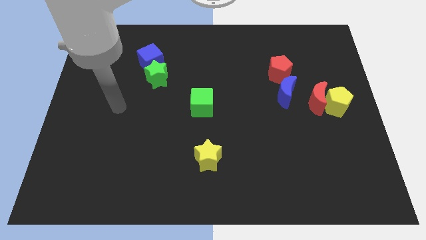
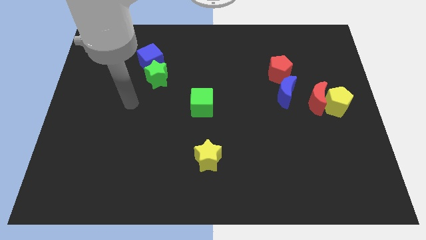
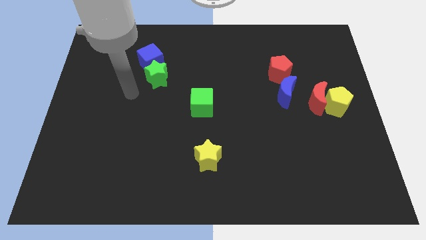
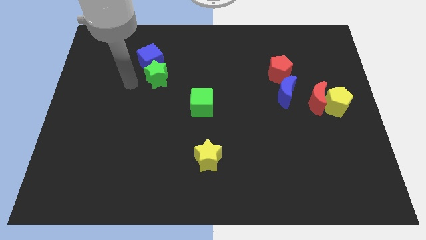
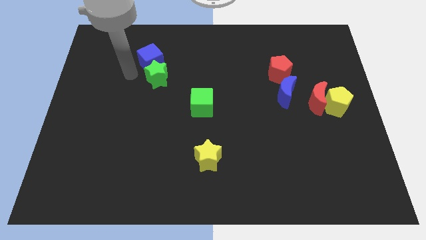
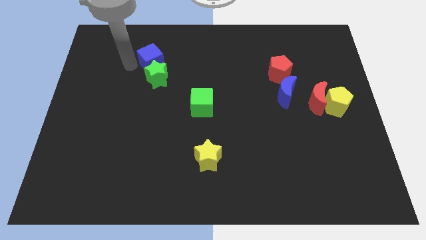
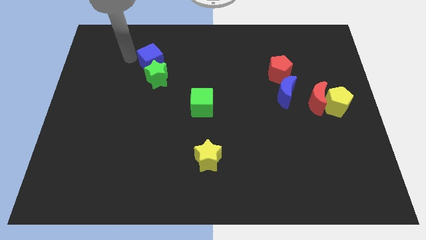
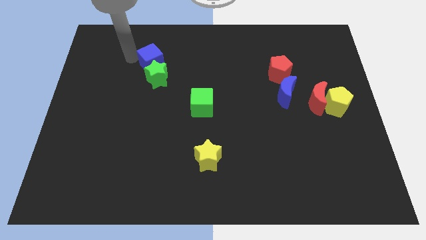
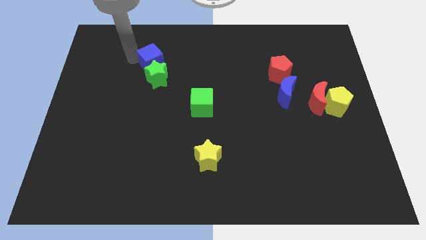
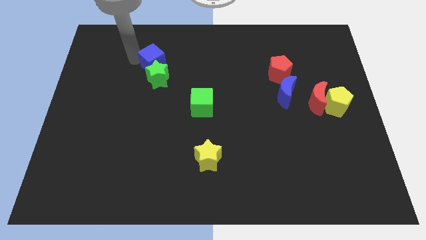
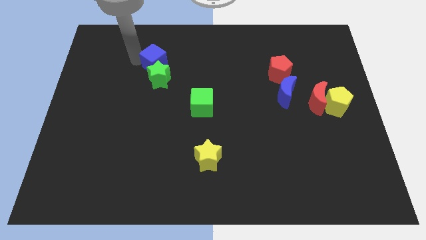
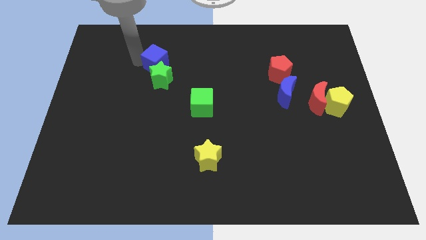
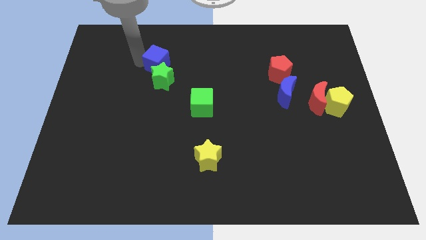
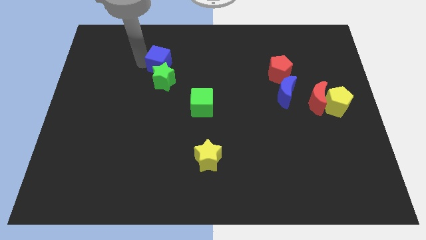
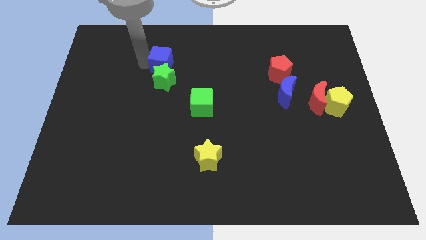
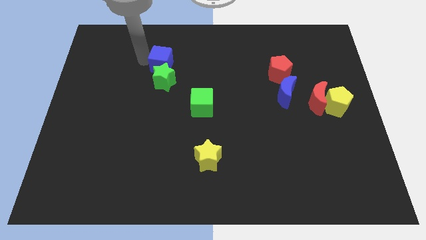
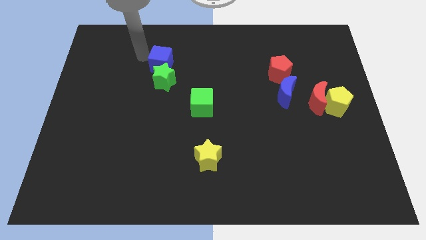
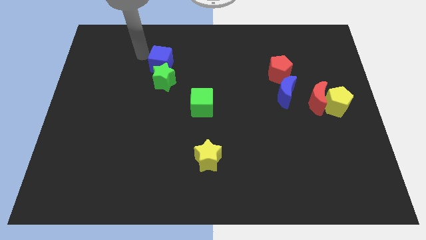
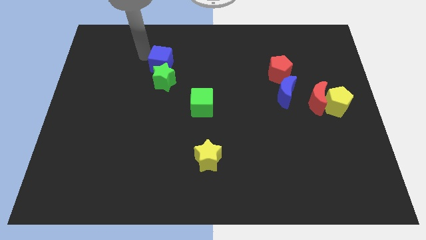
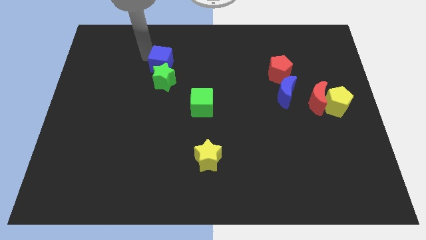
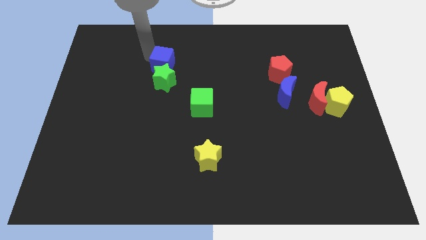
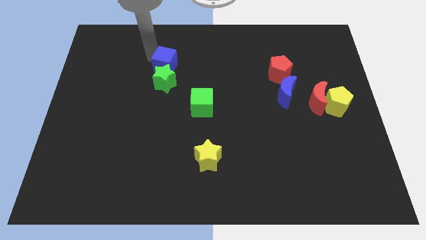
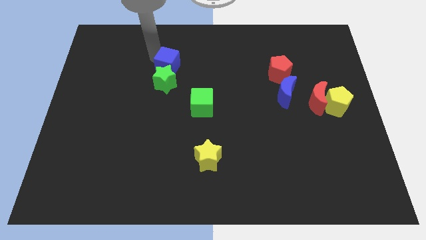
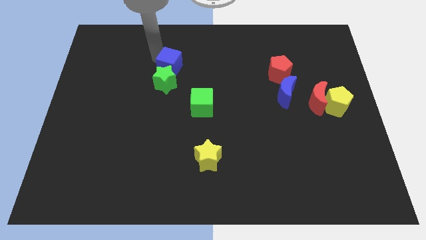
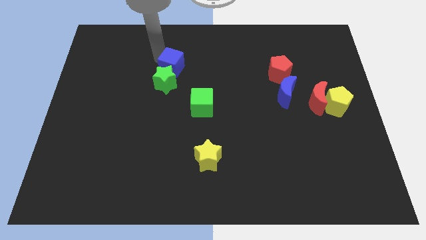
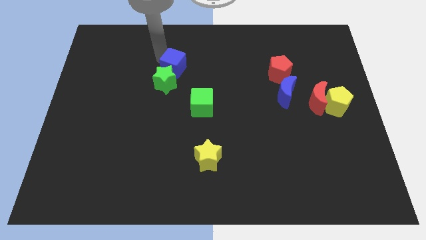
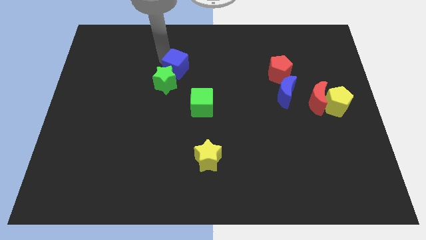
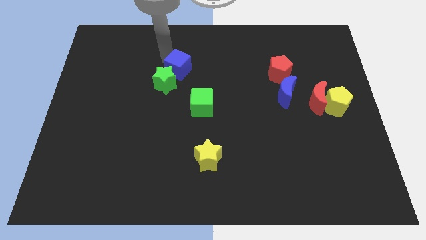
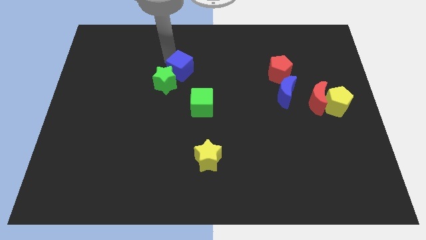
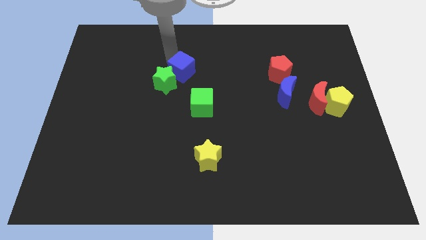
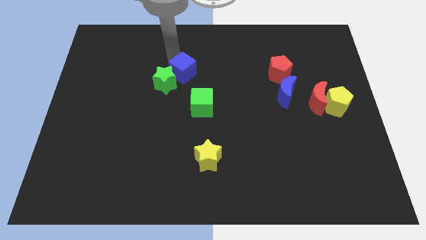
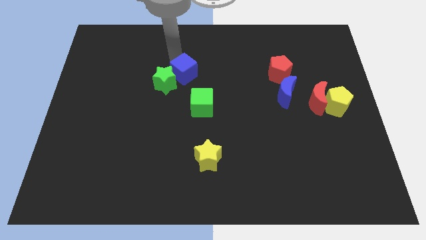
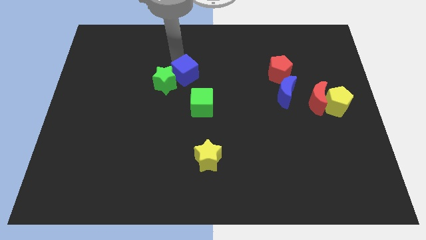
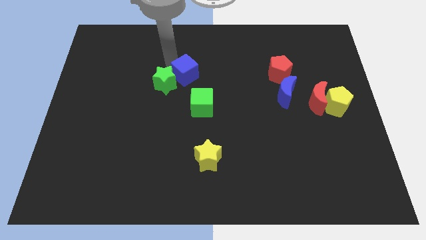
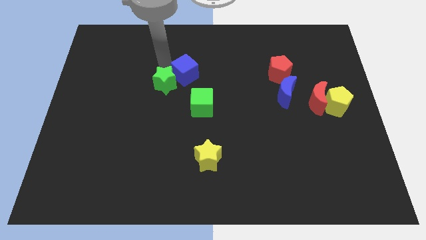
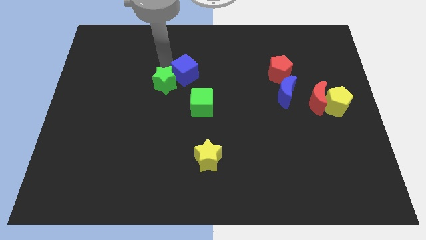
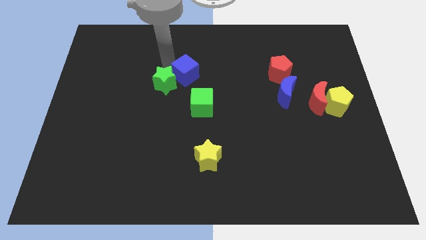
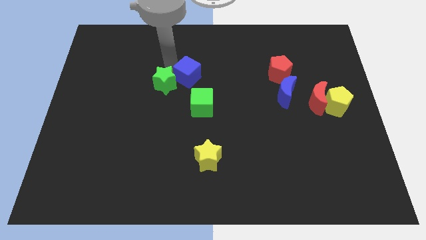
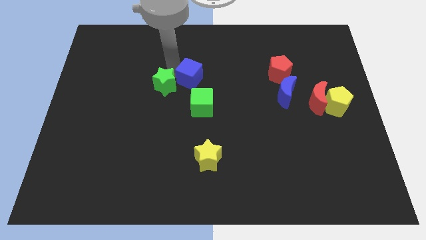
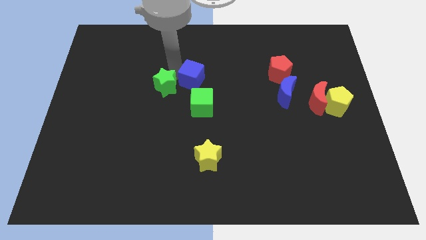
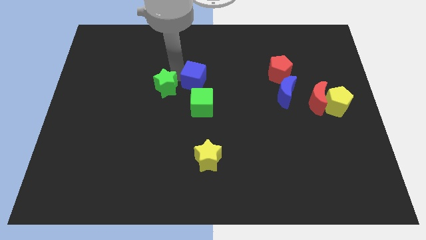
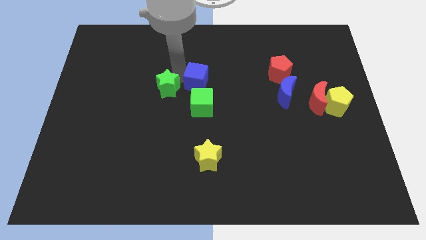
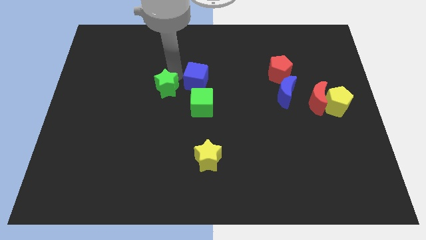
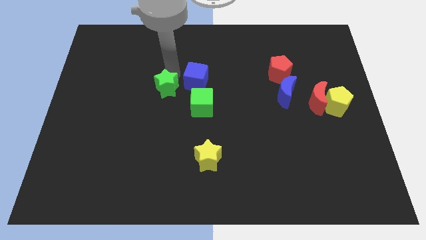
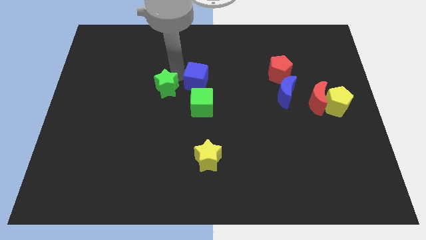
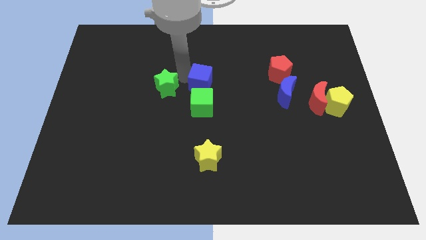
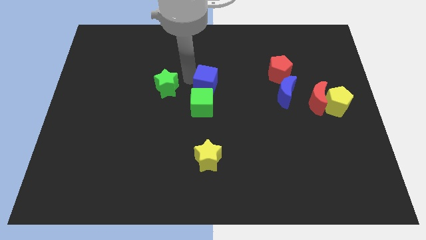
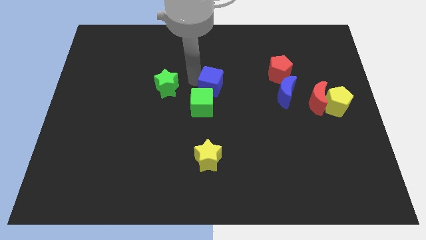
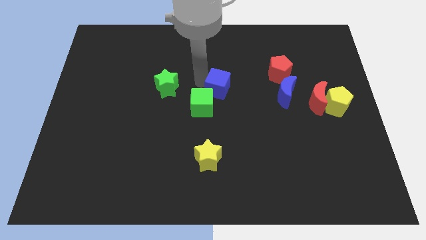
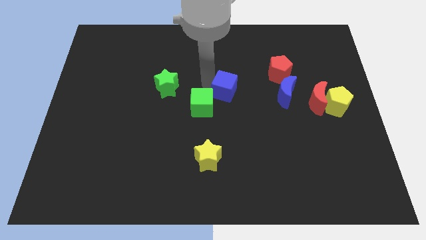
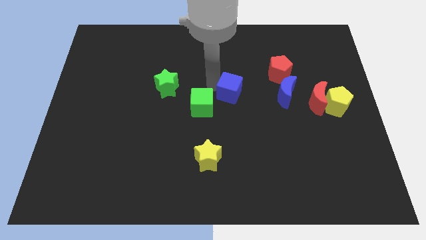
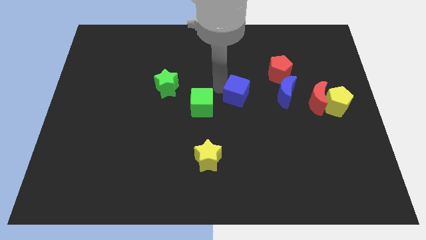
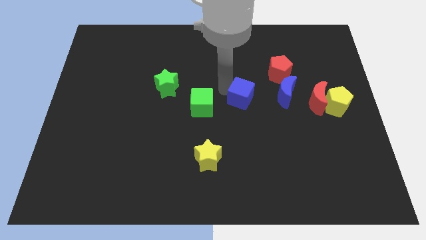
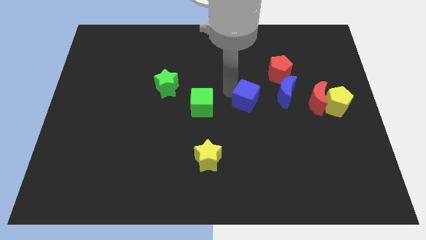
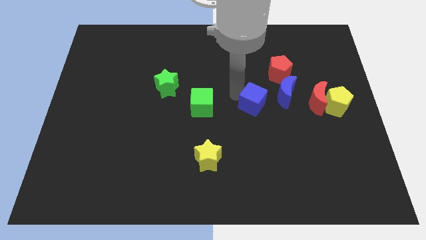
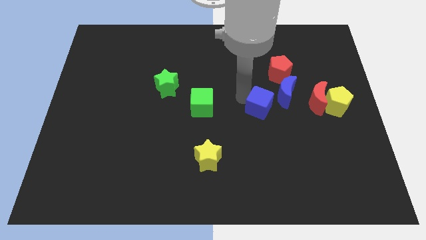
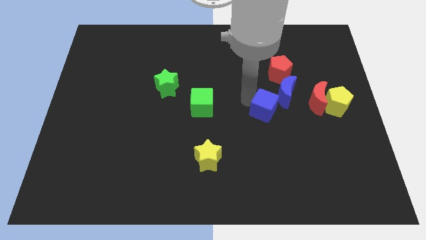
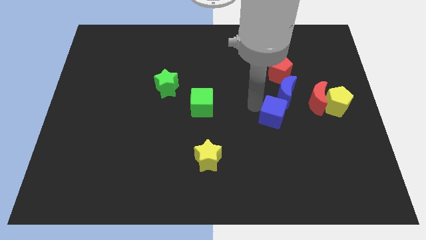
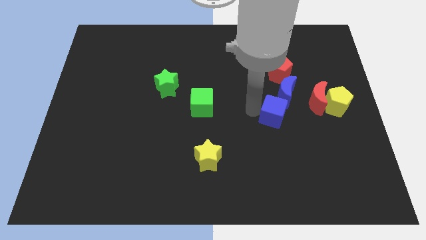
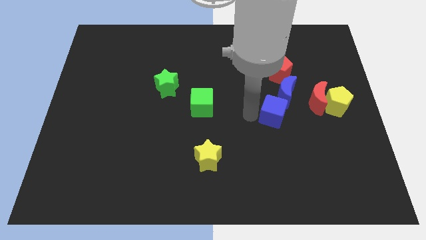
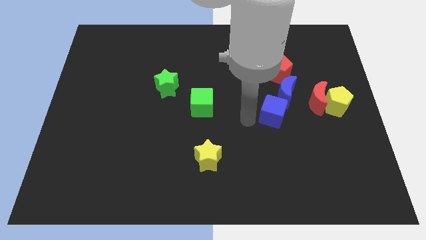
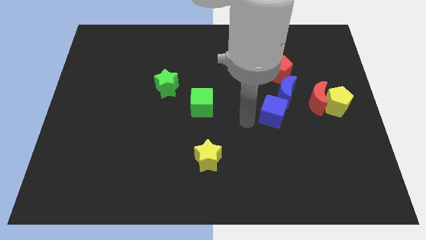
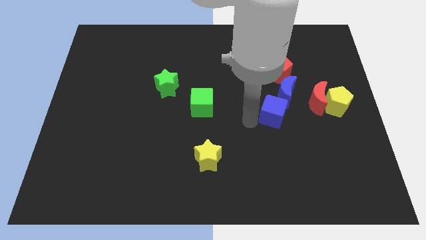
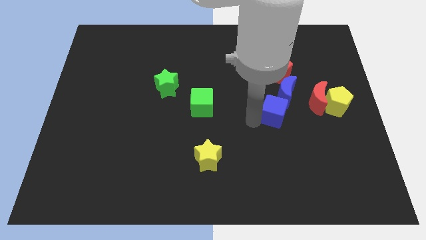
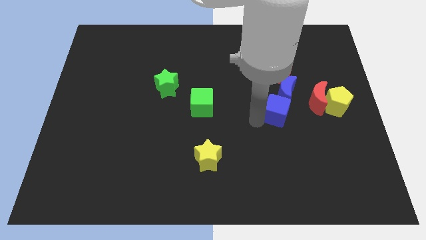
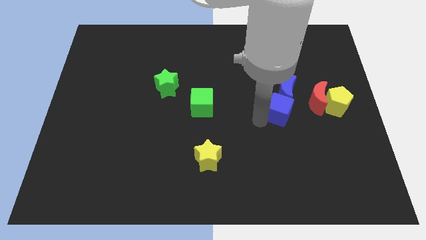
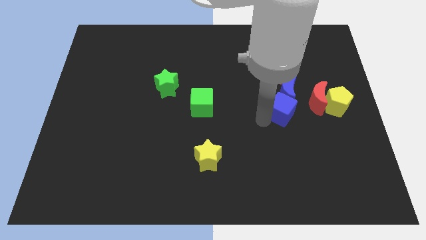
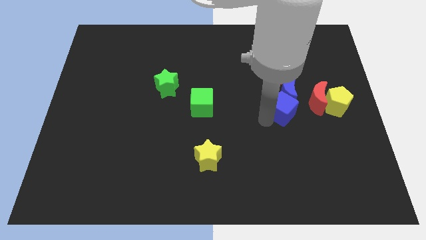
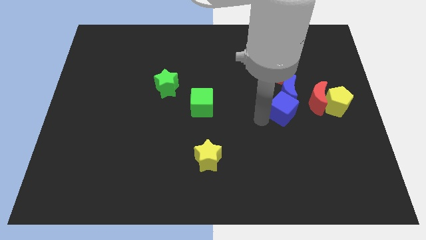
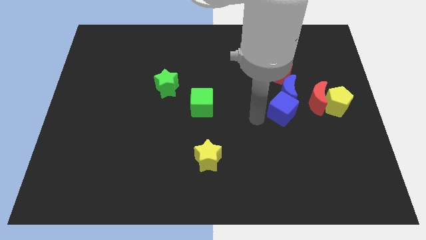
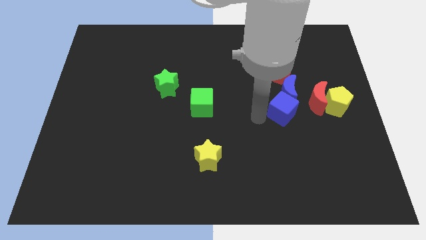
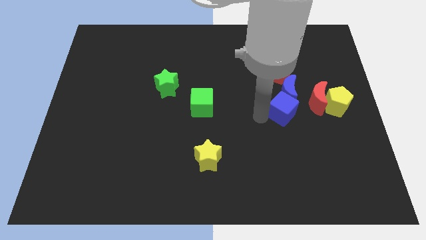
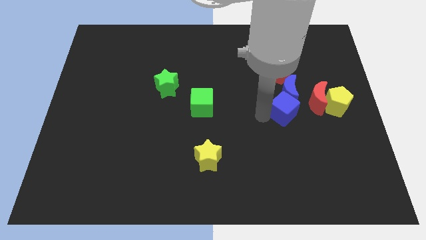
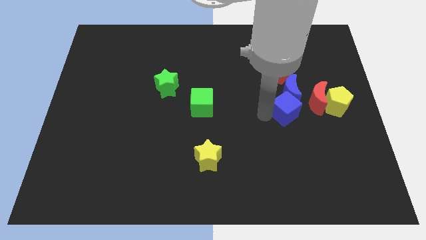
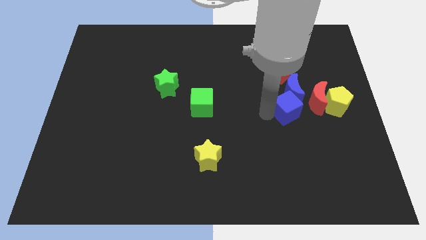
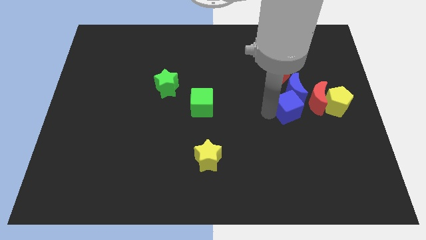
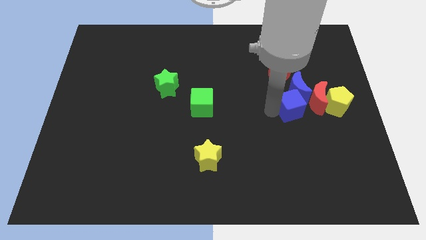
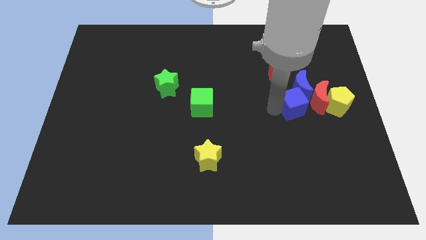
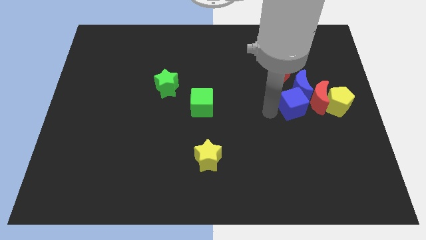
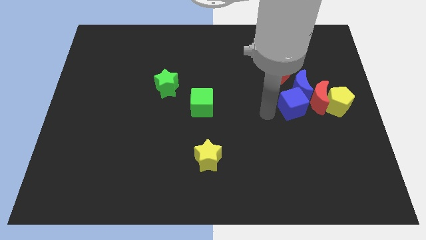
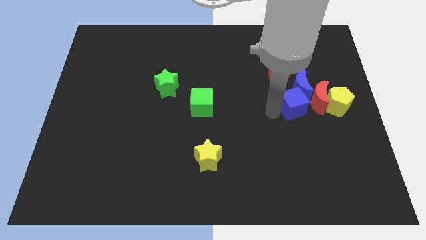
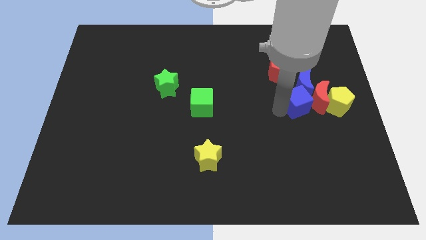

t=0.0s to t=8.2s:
slide the blue cube next to the red moon
